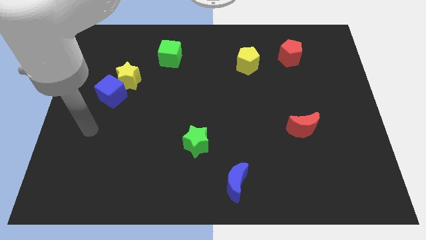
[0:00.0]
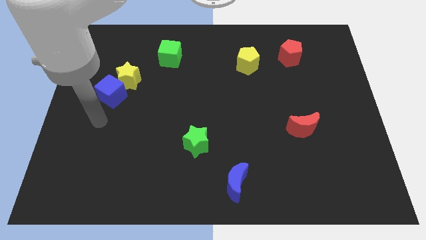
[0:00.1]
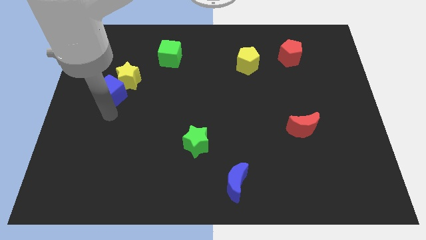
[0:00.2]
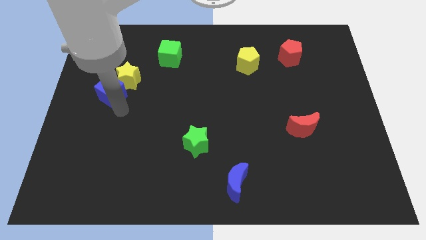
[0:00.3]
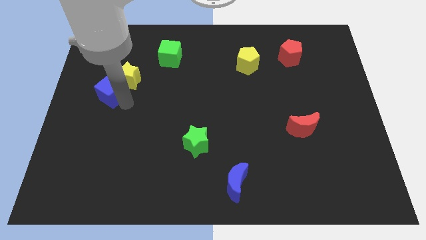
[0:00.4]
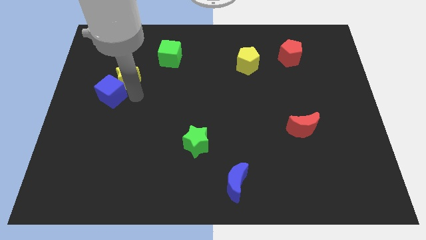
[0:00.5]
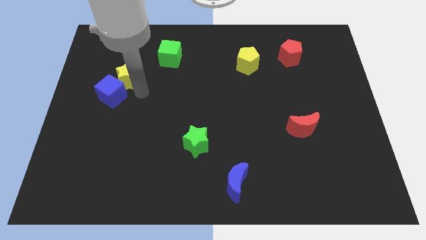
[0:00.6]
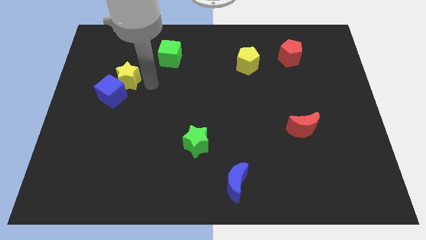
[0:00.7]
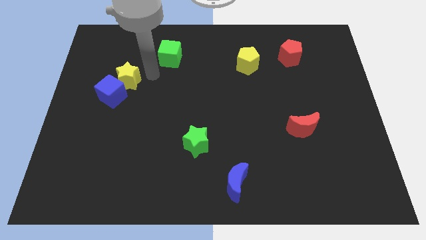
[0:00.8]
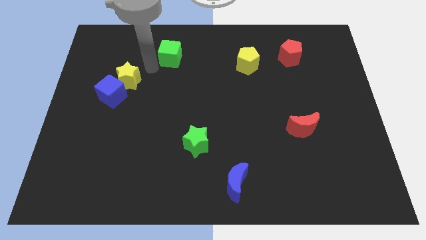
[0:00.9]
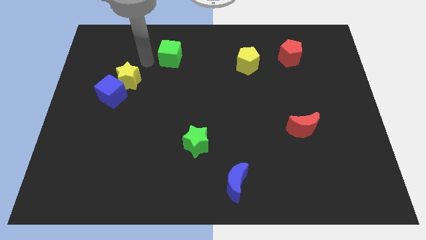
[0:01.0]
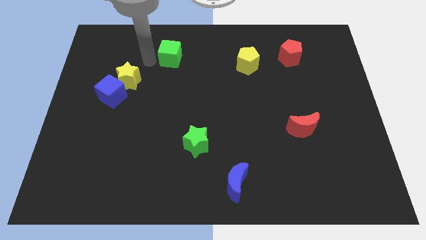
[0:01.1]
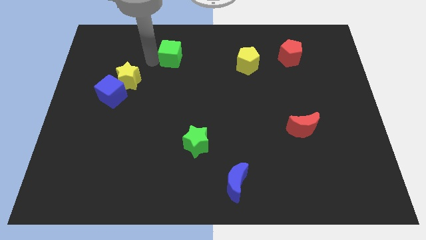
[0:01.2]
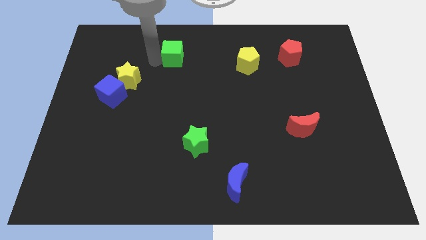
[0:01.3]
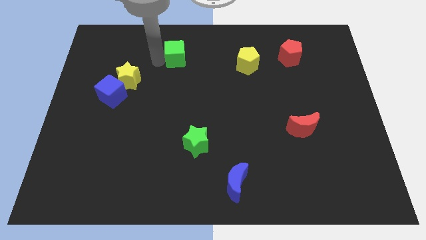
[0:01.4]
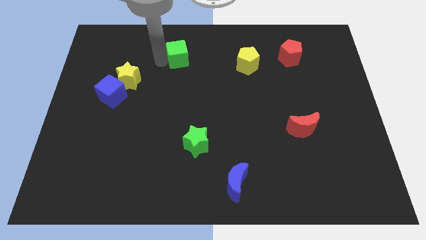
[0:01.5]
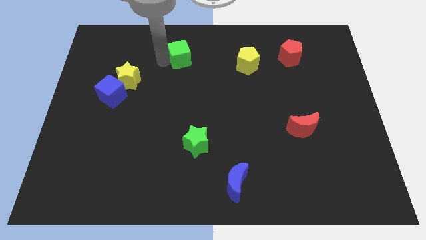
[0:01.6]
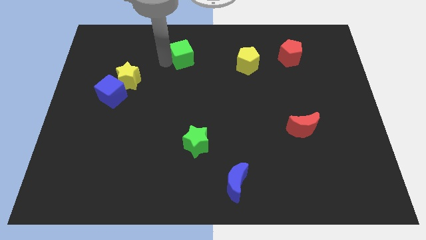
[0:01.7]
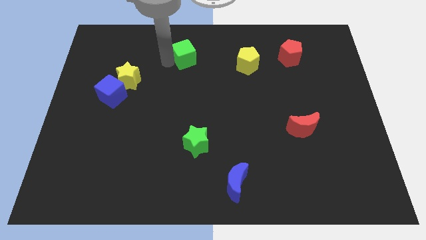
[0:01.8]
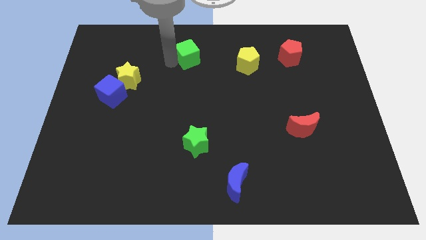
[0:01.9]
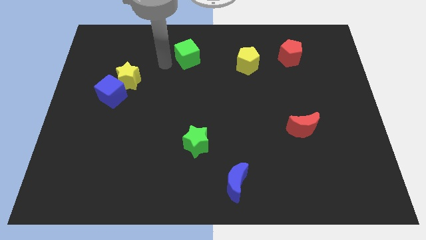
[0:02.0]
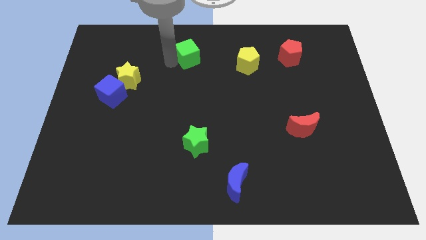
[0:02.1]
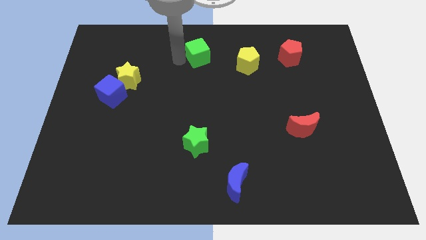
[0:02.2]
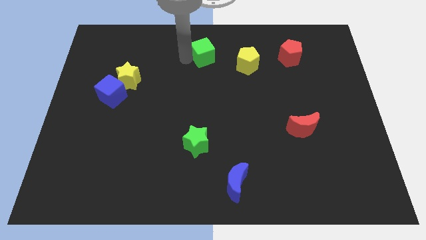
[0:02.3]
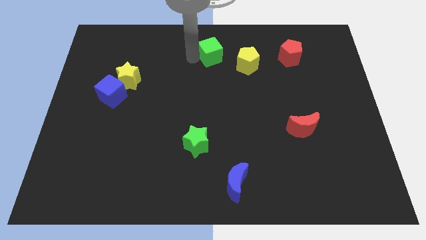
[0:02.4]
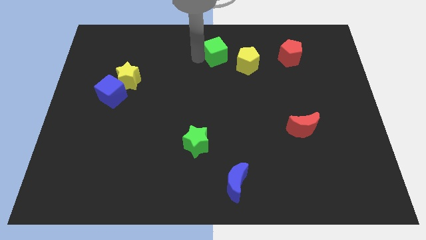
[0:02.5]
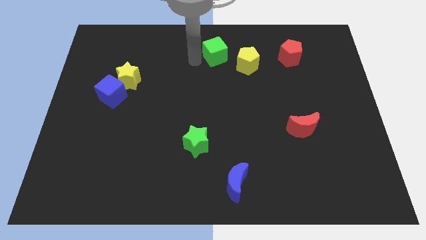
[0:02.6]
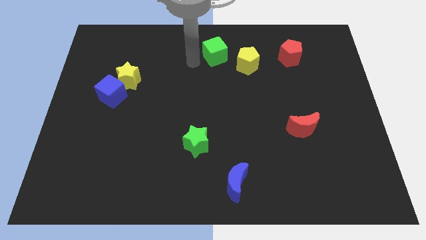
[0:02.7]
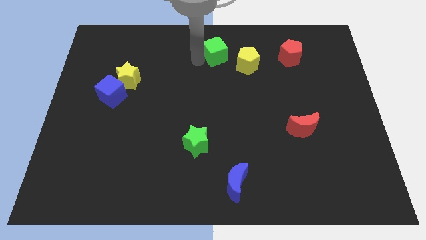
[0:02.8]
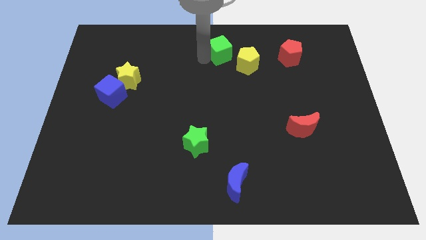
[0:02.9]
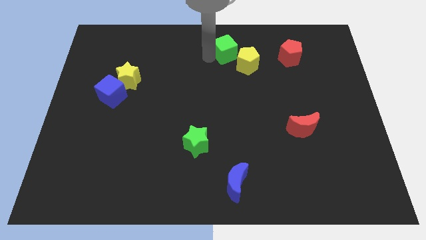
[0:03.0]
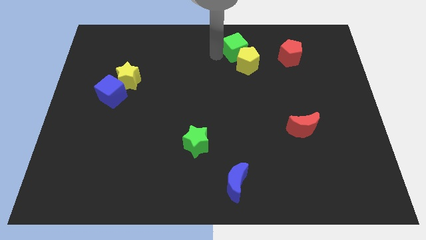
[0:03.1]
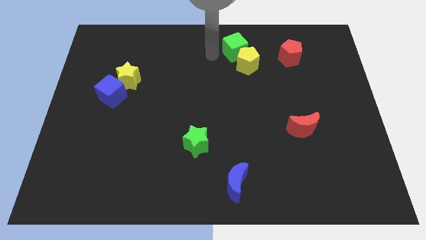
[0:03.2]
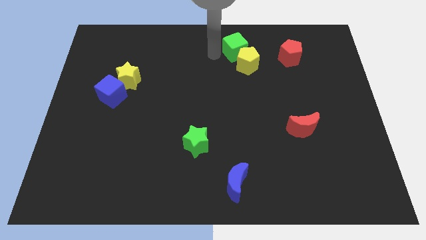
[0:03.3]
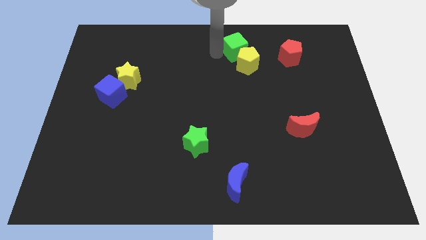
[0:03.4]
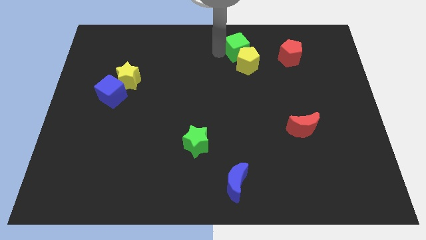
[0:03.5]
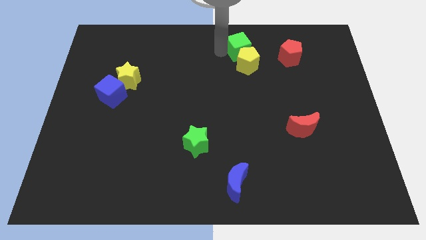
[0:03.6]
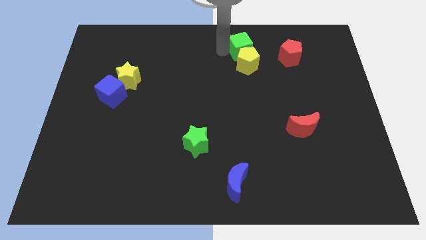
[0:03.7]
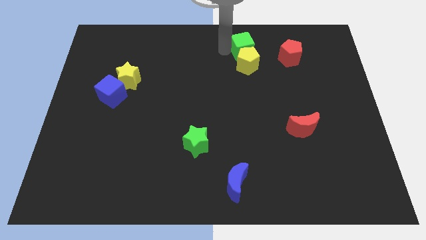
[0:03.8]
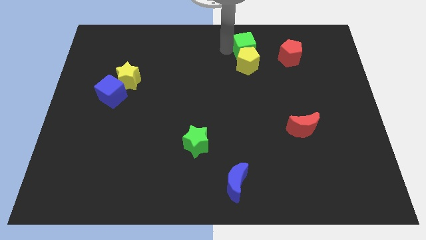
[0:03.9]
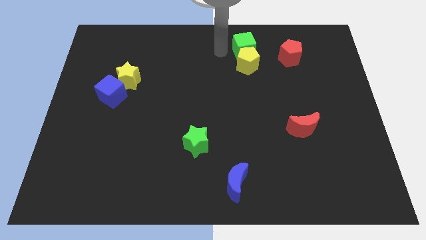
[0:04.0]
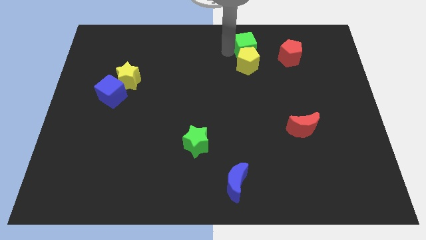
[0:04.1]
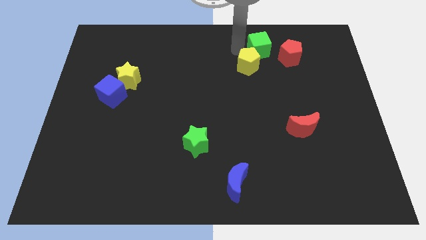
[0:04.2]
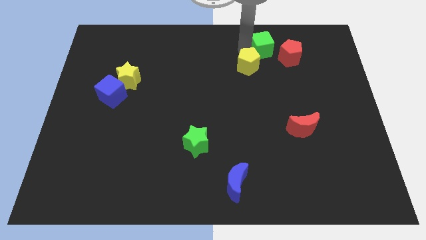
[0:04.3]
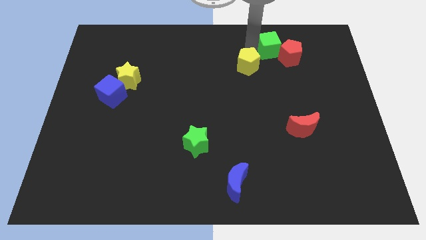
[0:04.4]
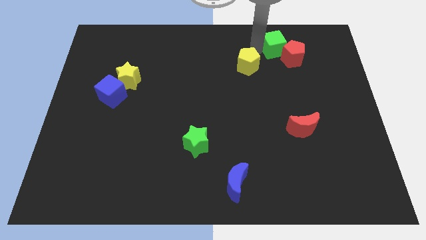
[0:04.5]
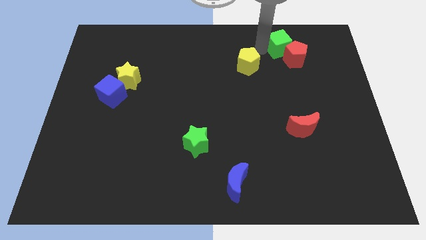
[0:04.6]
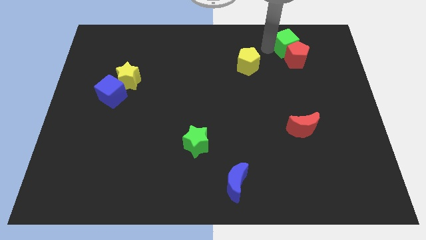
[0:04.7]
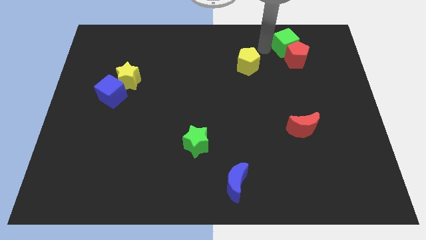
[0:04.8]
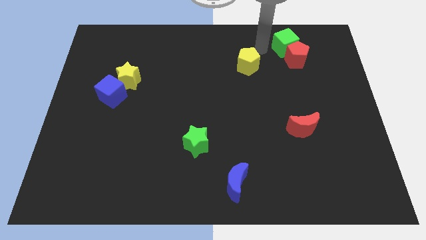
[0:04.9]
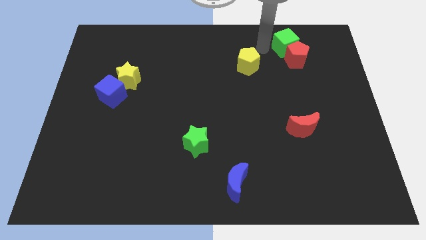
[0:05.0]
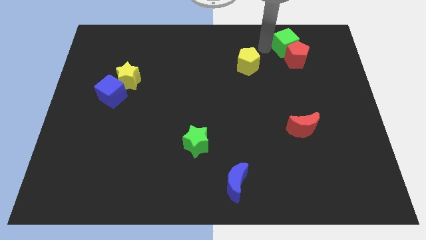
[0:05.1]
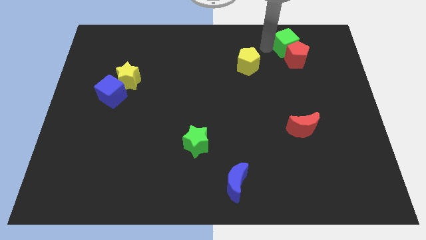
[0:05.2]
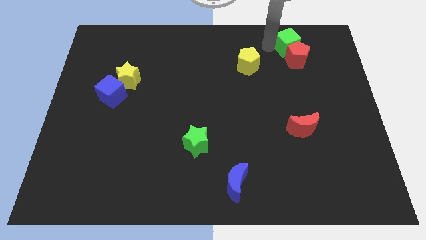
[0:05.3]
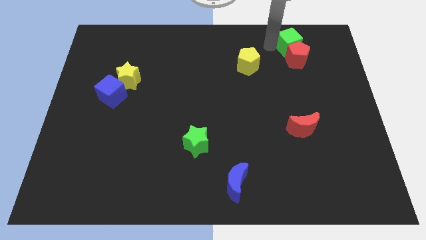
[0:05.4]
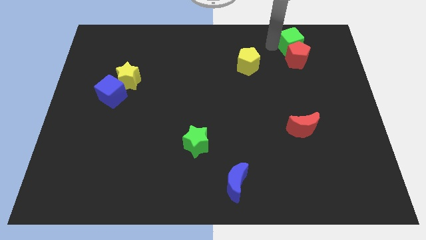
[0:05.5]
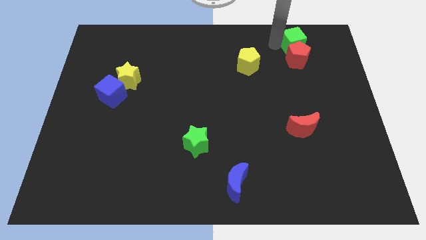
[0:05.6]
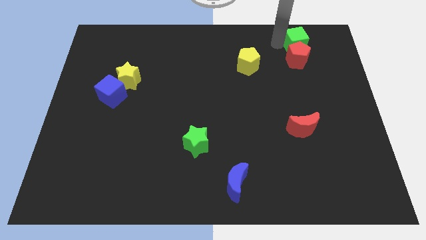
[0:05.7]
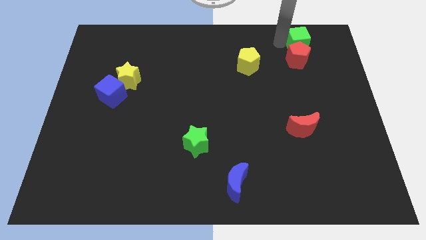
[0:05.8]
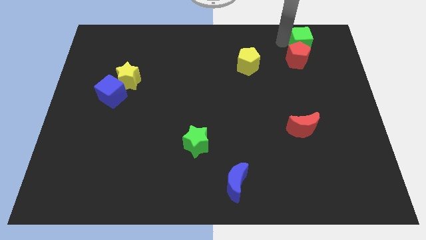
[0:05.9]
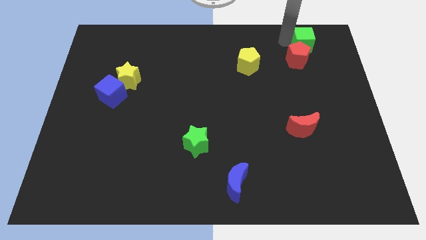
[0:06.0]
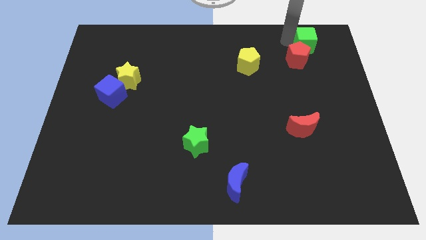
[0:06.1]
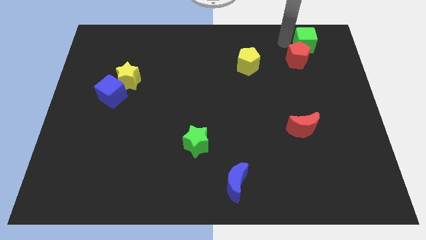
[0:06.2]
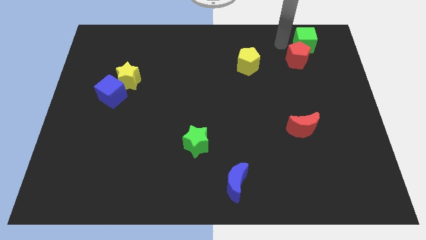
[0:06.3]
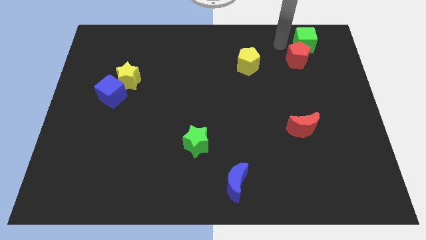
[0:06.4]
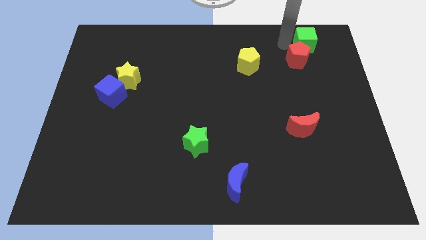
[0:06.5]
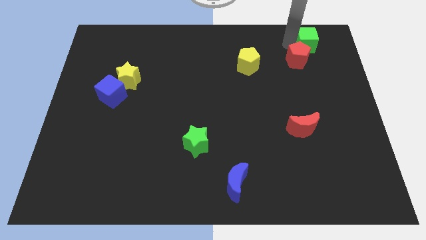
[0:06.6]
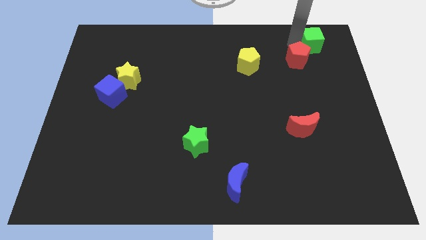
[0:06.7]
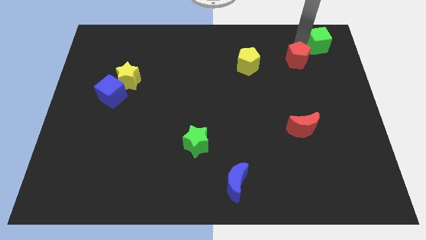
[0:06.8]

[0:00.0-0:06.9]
move the green cube to the upper right corner
